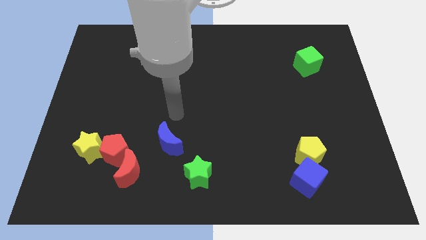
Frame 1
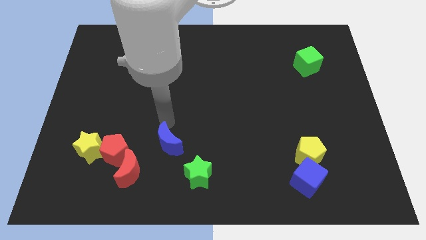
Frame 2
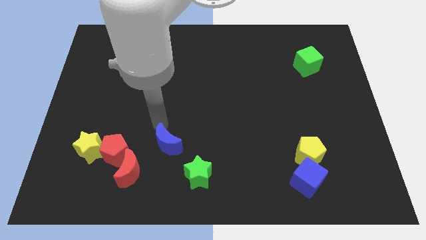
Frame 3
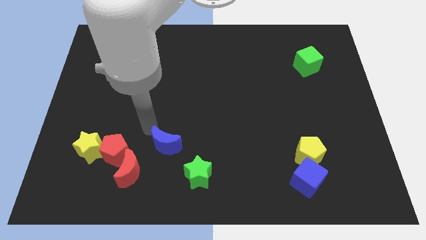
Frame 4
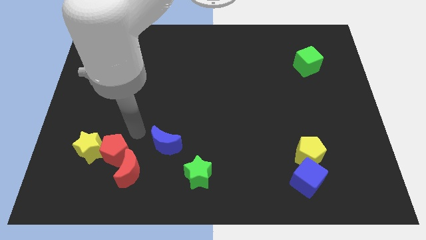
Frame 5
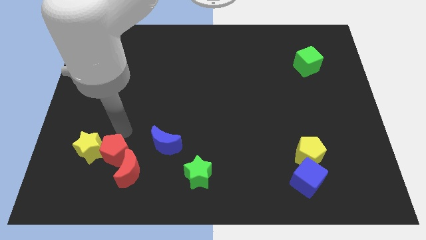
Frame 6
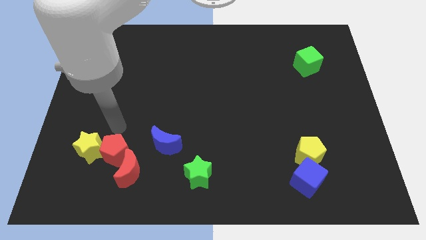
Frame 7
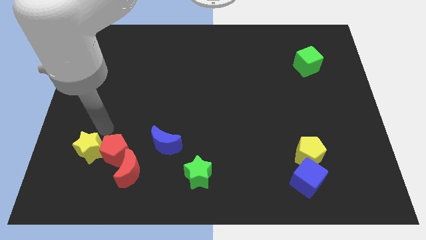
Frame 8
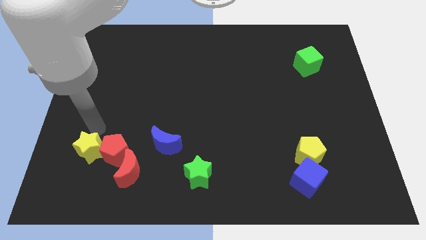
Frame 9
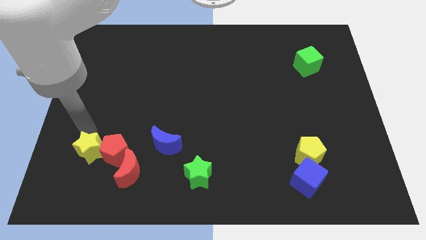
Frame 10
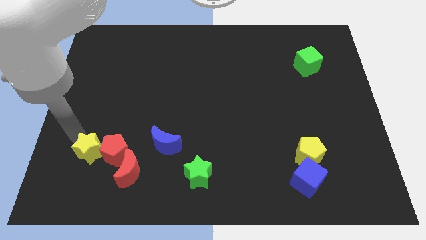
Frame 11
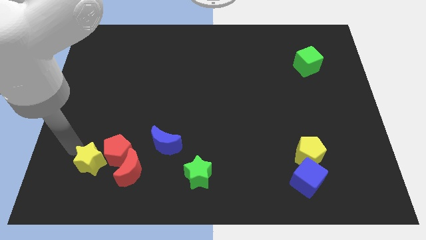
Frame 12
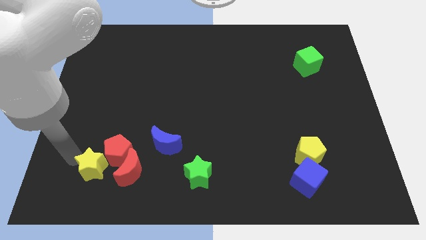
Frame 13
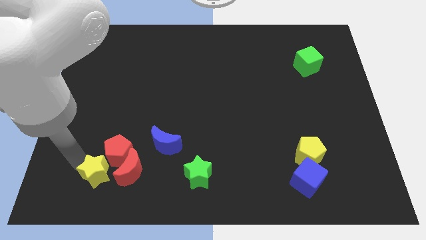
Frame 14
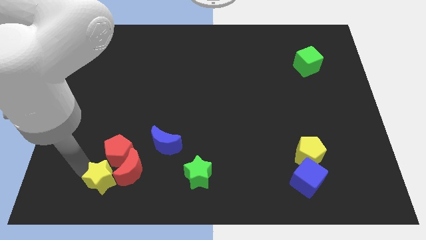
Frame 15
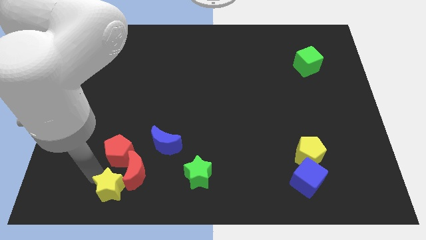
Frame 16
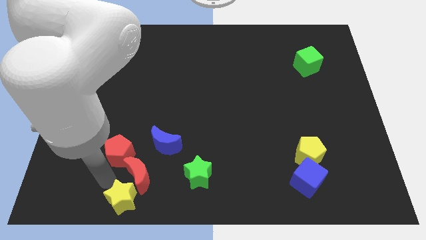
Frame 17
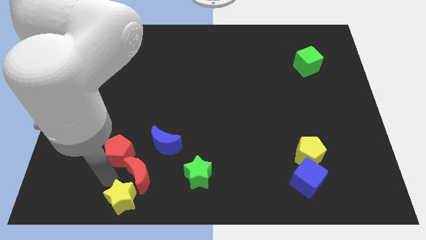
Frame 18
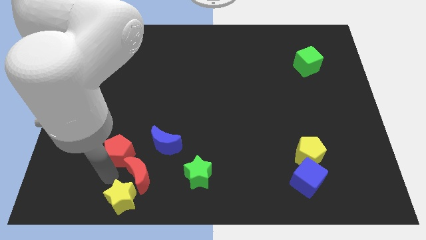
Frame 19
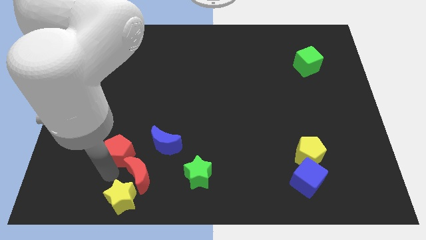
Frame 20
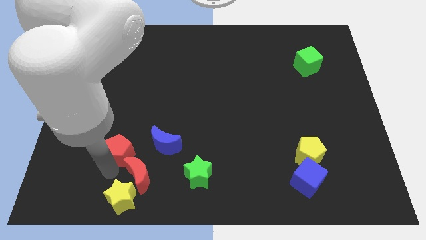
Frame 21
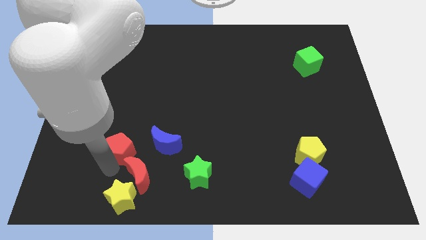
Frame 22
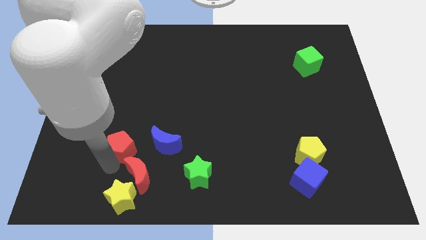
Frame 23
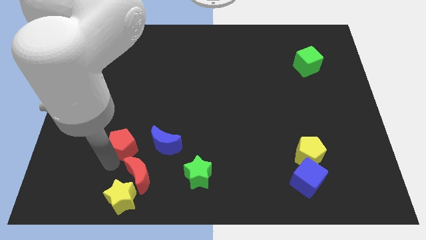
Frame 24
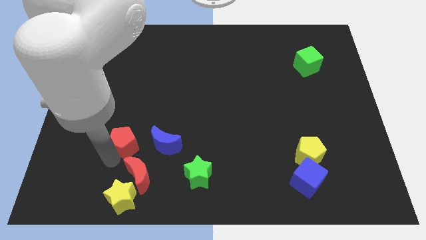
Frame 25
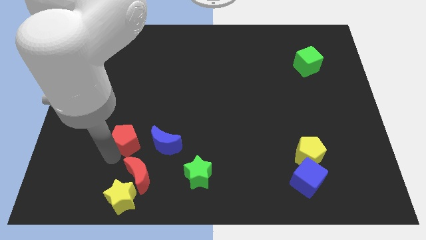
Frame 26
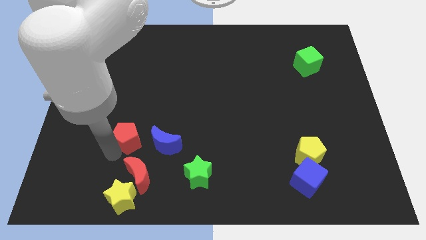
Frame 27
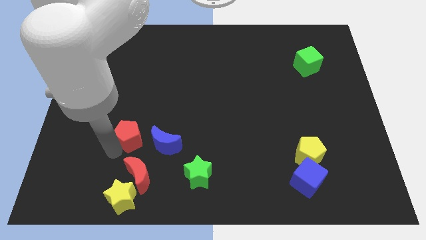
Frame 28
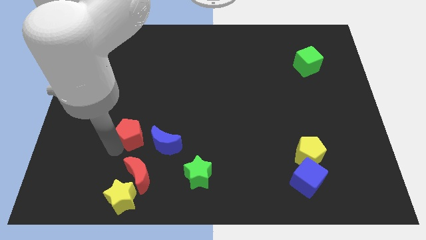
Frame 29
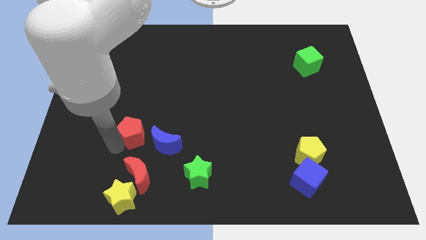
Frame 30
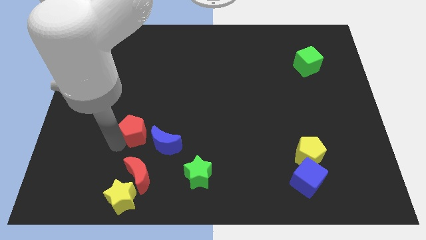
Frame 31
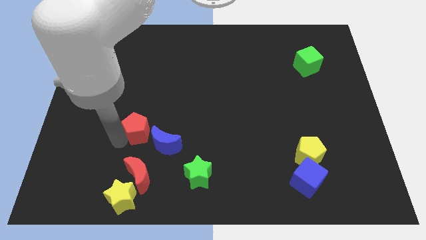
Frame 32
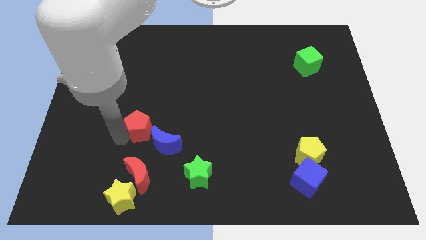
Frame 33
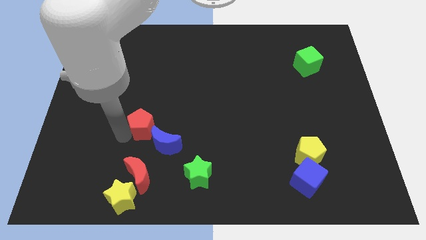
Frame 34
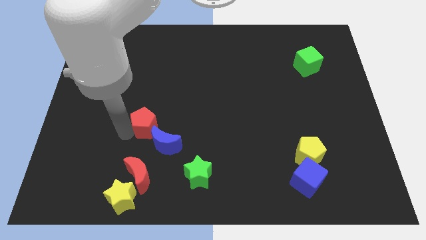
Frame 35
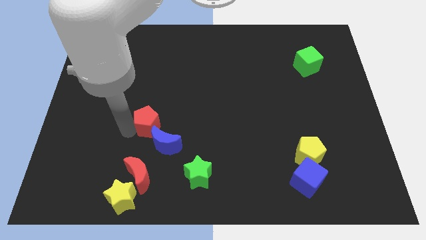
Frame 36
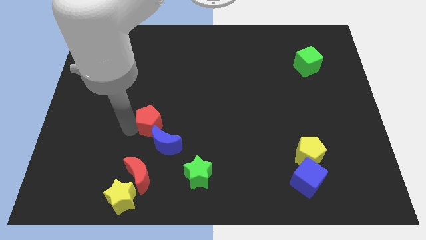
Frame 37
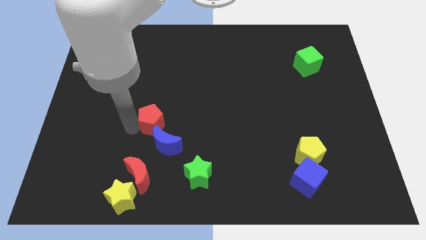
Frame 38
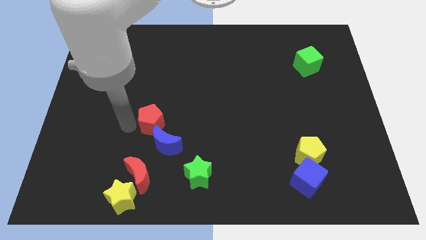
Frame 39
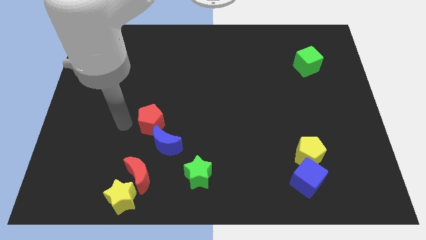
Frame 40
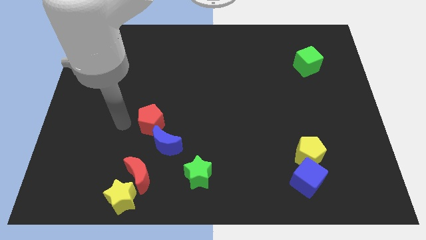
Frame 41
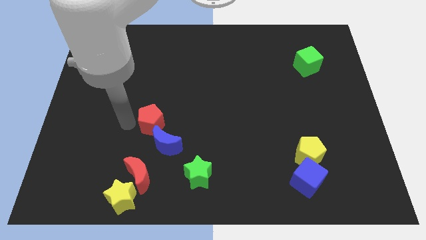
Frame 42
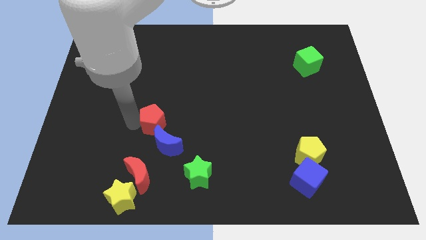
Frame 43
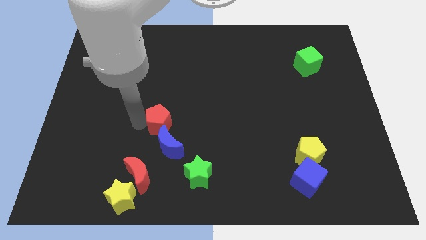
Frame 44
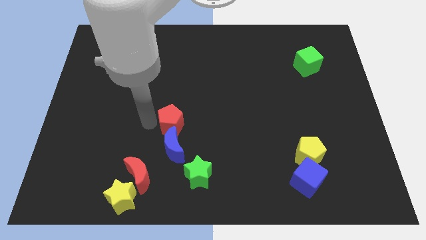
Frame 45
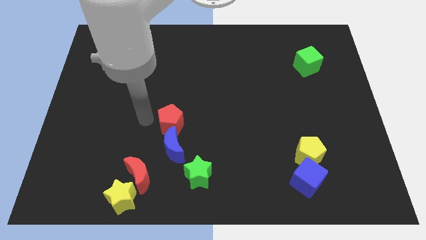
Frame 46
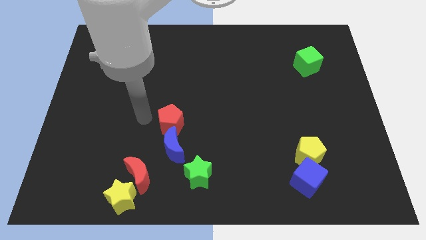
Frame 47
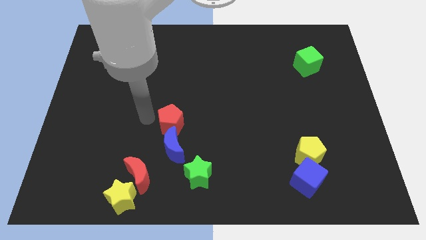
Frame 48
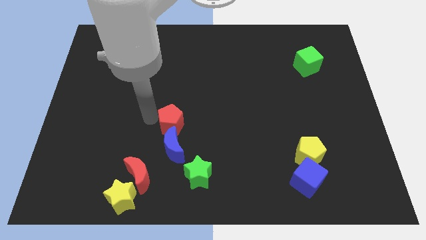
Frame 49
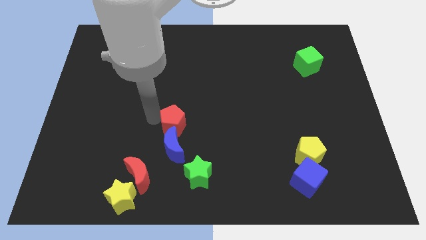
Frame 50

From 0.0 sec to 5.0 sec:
slide the red pentagon to the top right of the blue moon

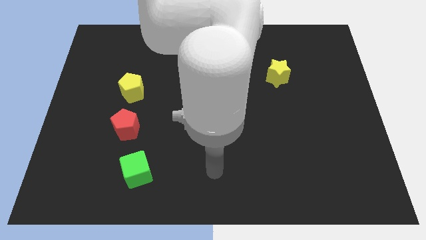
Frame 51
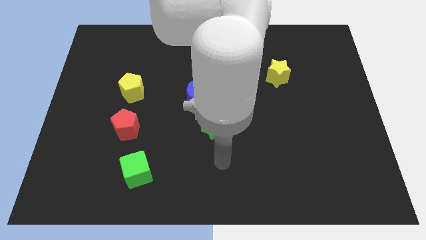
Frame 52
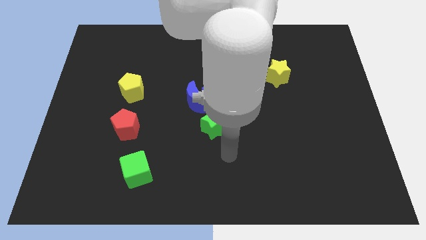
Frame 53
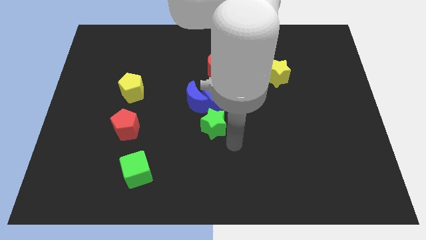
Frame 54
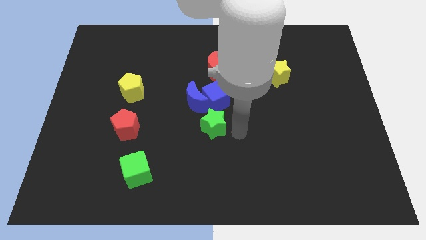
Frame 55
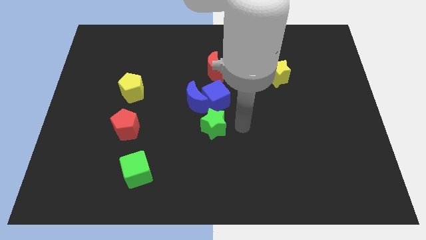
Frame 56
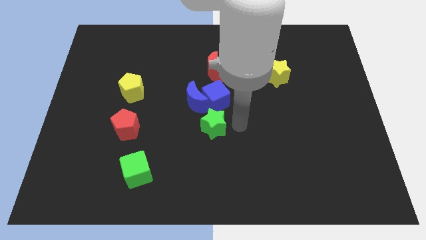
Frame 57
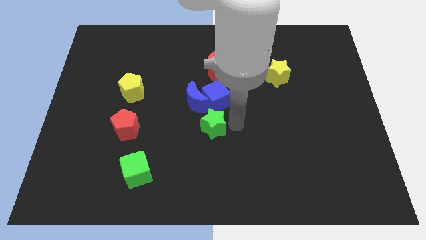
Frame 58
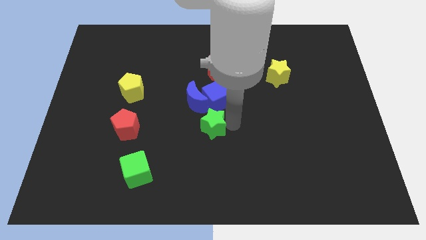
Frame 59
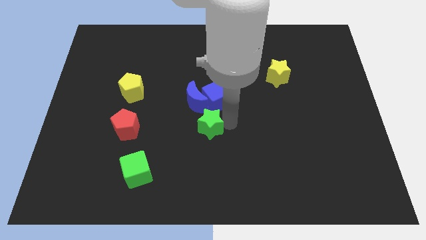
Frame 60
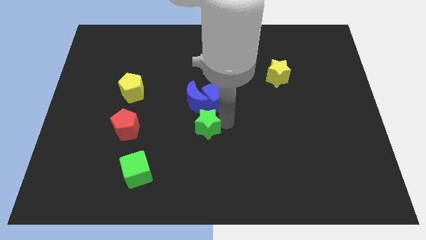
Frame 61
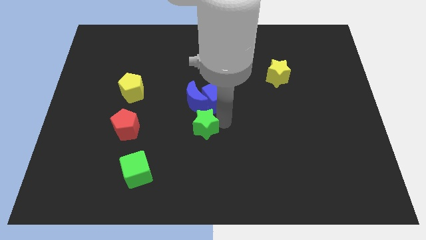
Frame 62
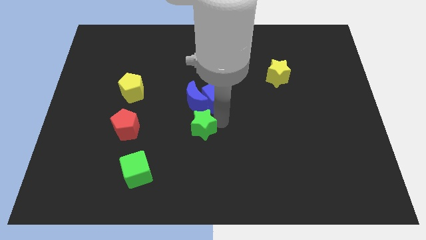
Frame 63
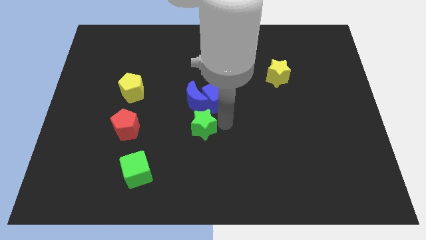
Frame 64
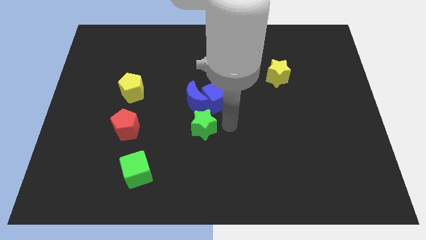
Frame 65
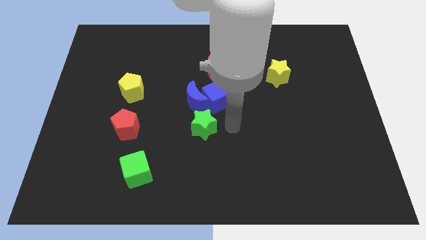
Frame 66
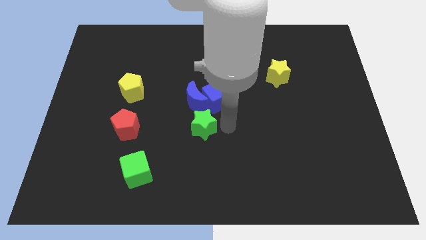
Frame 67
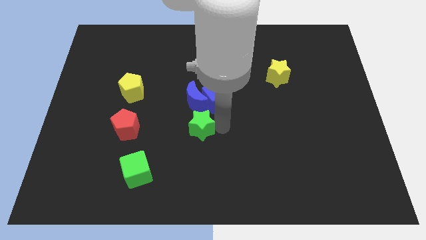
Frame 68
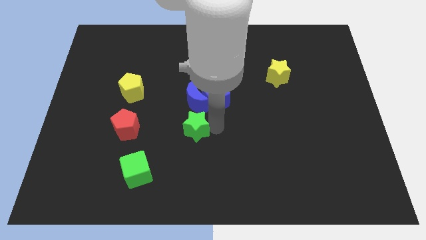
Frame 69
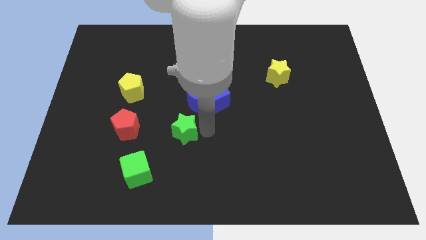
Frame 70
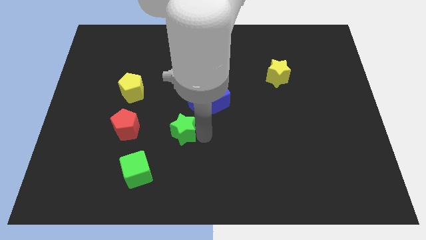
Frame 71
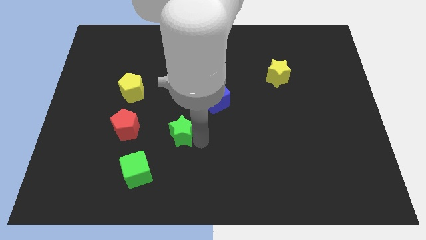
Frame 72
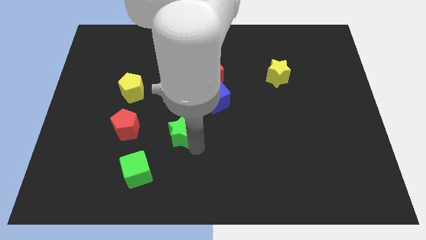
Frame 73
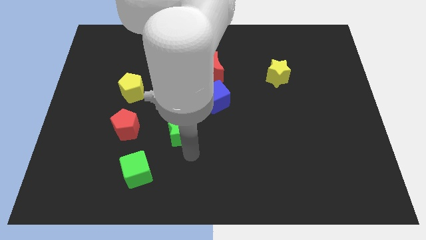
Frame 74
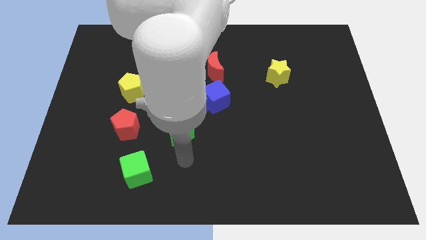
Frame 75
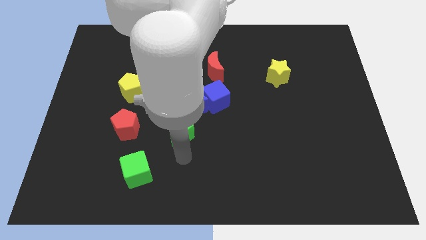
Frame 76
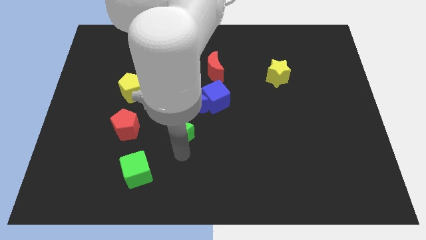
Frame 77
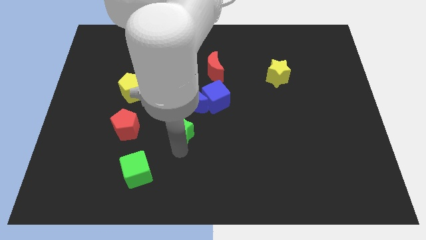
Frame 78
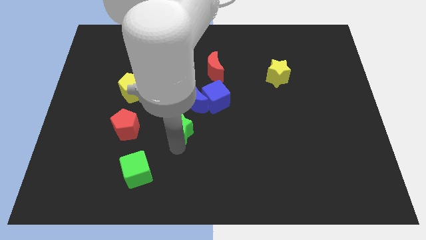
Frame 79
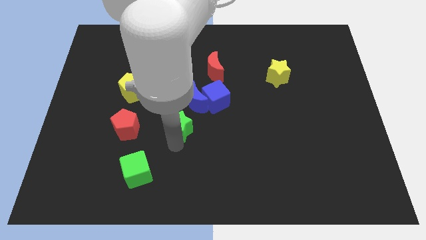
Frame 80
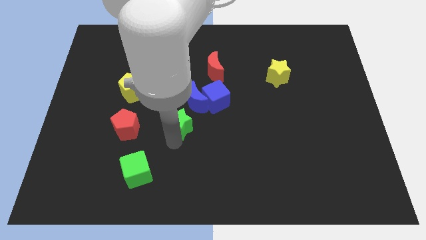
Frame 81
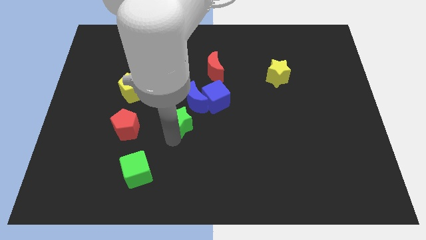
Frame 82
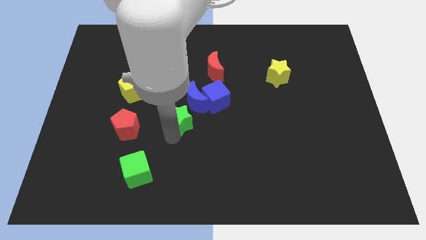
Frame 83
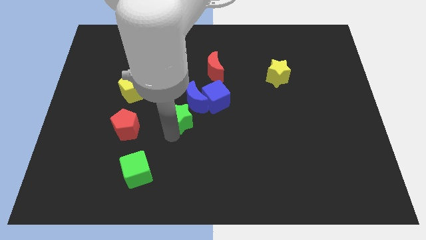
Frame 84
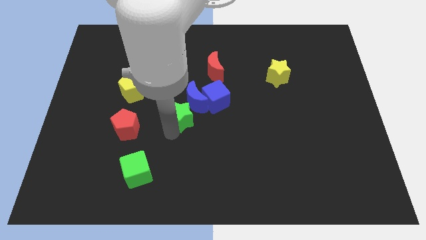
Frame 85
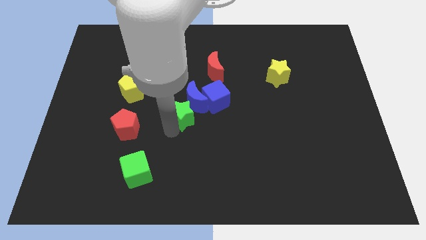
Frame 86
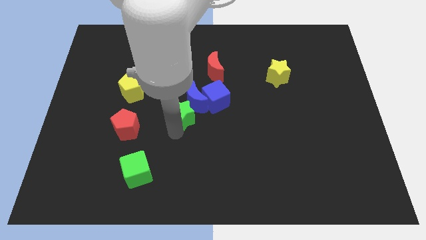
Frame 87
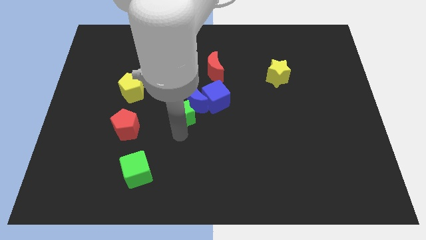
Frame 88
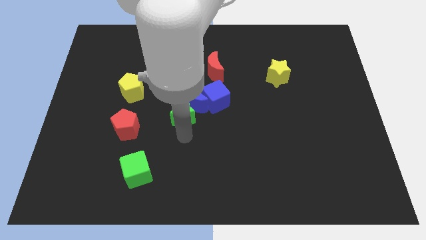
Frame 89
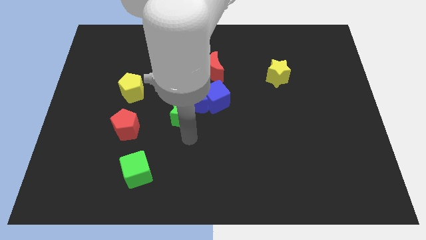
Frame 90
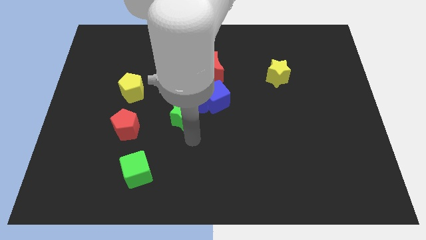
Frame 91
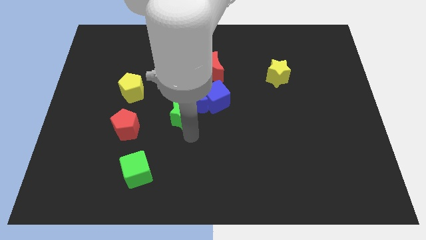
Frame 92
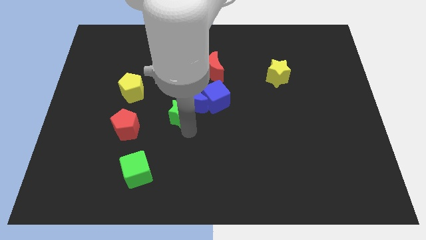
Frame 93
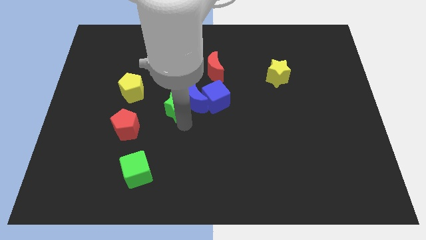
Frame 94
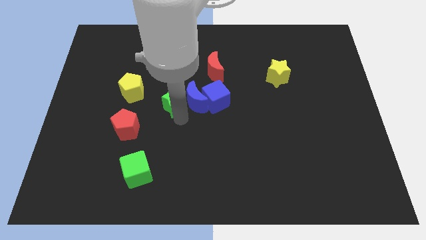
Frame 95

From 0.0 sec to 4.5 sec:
slide the green star to the top left of the blue moon
